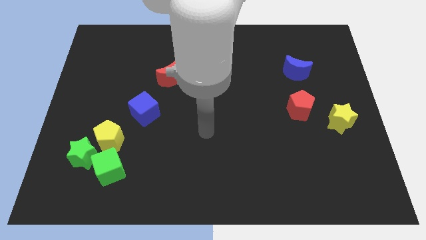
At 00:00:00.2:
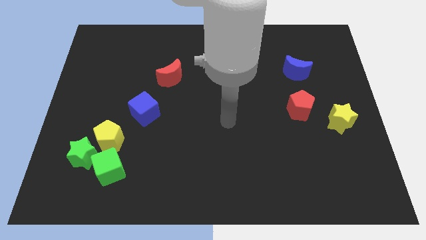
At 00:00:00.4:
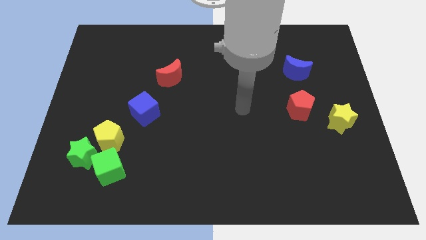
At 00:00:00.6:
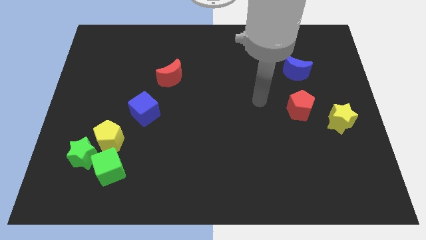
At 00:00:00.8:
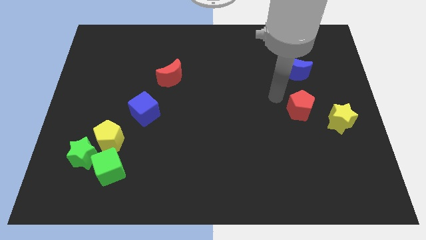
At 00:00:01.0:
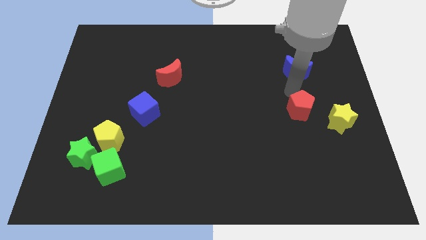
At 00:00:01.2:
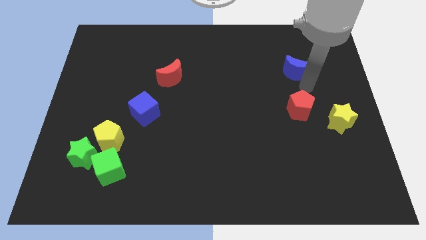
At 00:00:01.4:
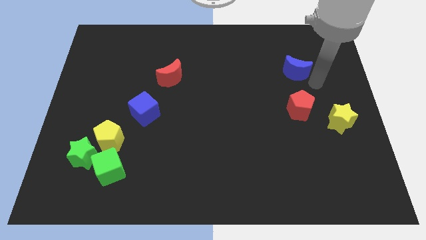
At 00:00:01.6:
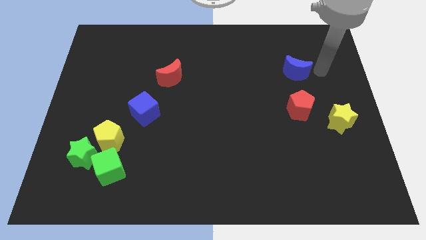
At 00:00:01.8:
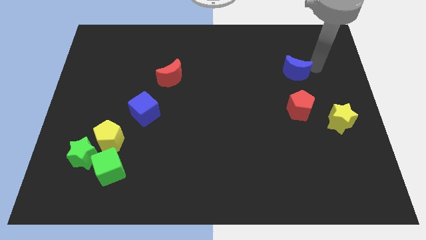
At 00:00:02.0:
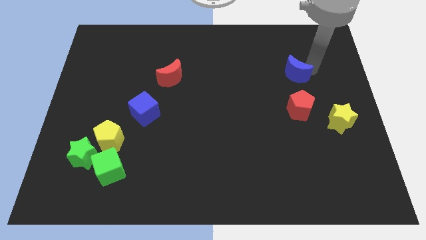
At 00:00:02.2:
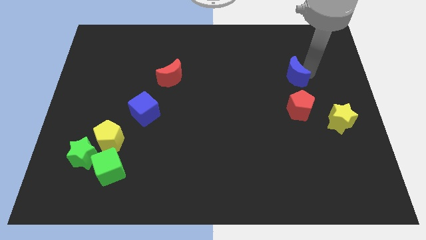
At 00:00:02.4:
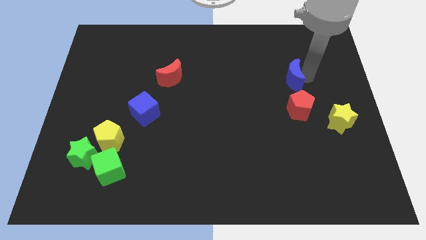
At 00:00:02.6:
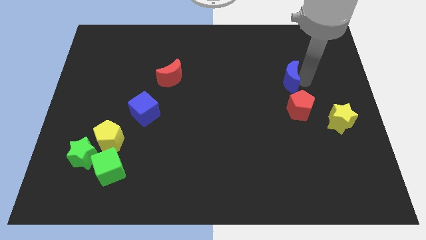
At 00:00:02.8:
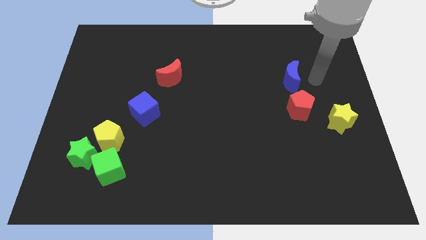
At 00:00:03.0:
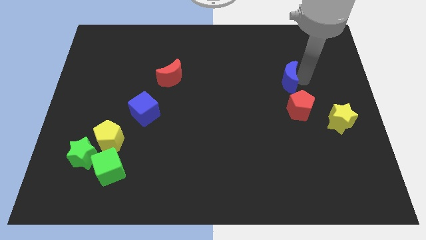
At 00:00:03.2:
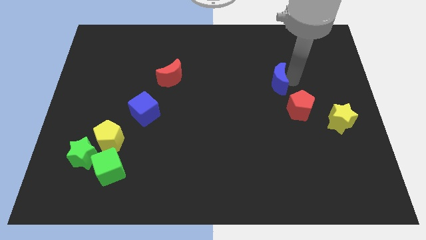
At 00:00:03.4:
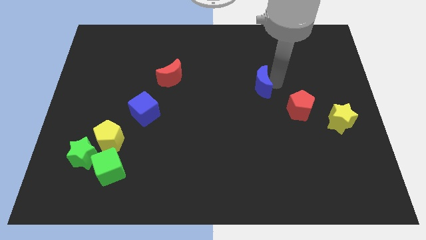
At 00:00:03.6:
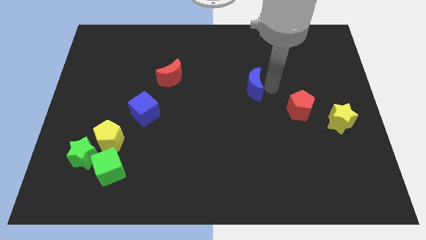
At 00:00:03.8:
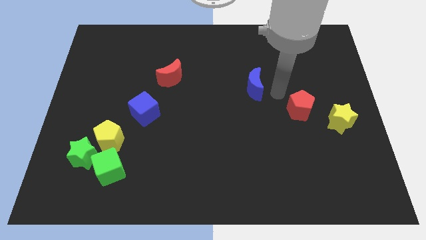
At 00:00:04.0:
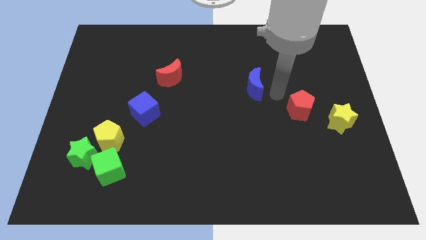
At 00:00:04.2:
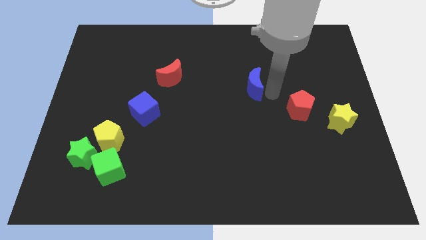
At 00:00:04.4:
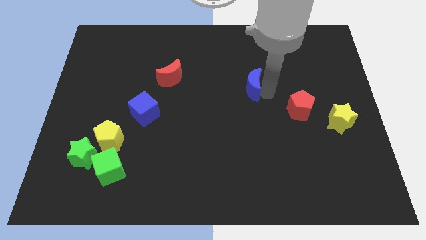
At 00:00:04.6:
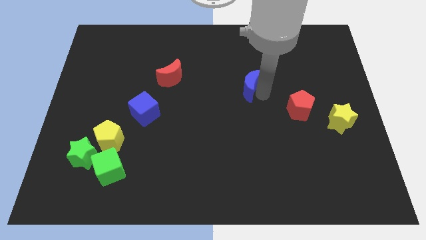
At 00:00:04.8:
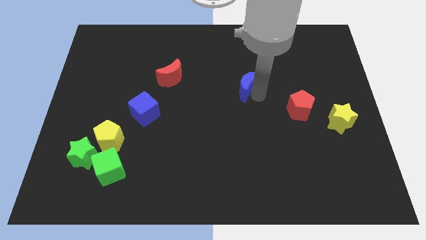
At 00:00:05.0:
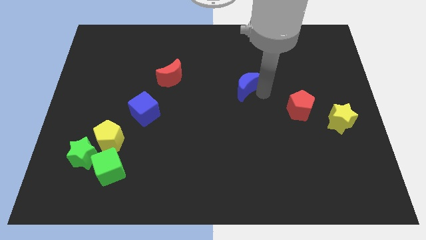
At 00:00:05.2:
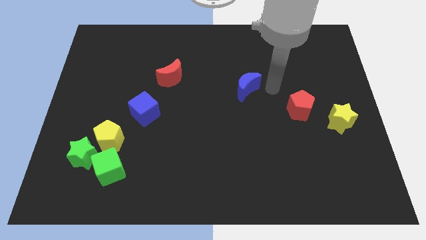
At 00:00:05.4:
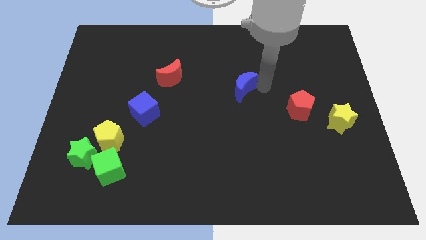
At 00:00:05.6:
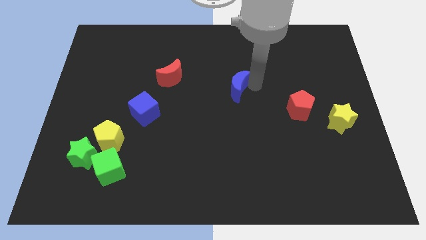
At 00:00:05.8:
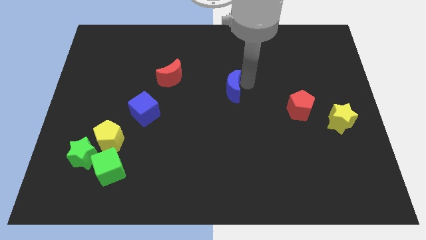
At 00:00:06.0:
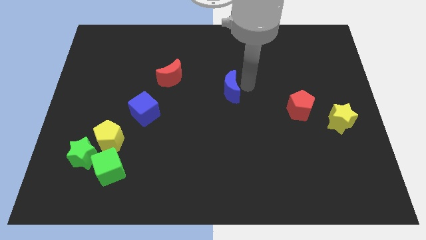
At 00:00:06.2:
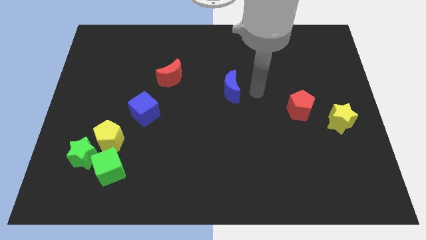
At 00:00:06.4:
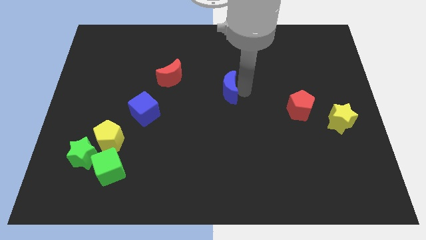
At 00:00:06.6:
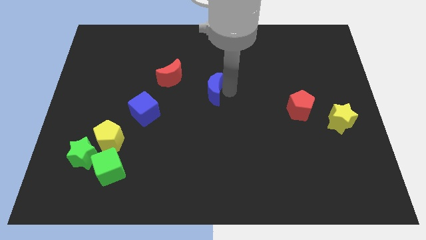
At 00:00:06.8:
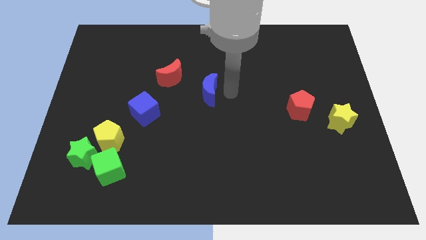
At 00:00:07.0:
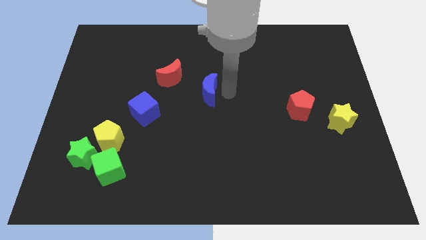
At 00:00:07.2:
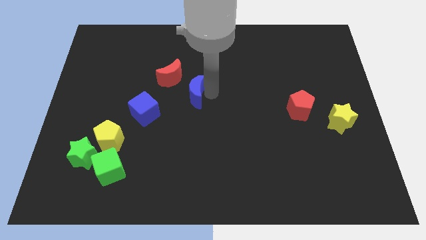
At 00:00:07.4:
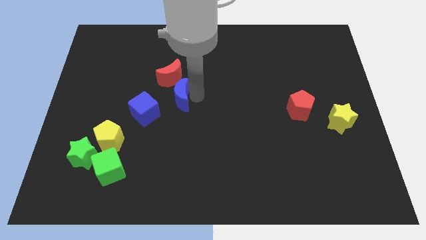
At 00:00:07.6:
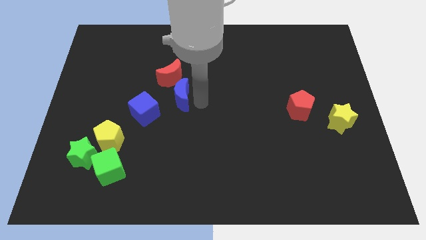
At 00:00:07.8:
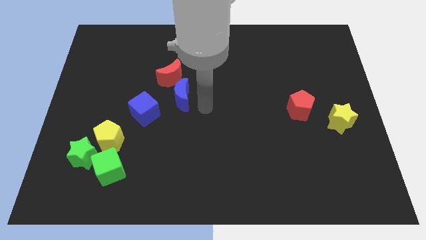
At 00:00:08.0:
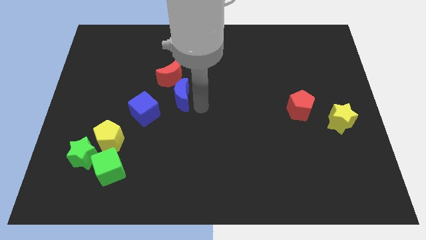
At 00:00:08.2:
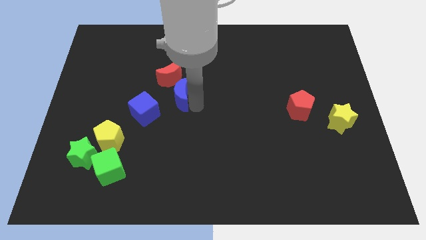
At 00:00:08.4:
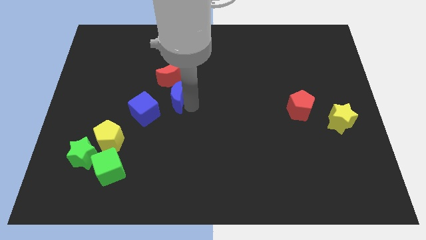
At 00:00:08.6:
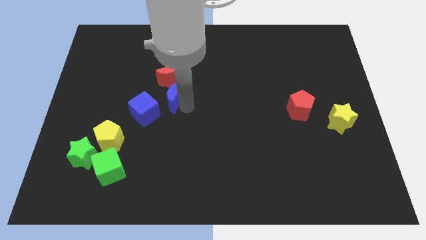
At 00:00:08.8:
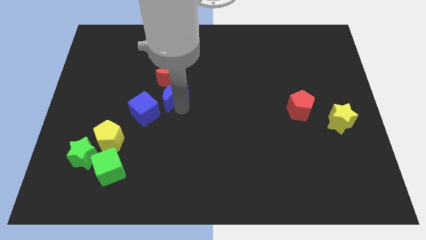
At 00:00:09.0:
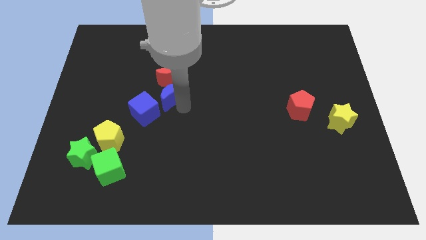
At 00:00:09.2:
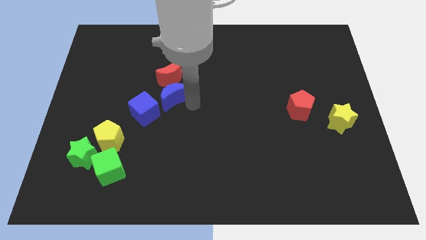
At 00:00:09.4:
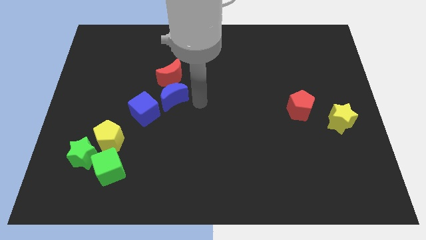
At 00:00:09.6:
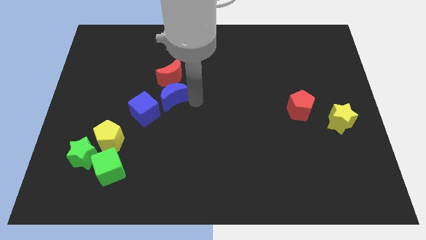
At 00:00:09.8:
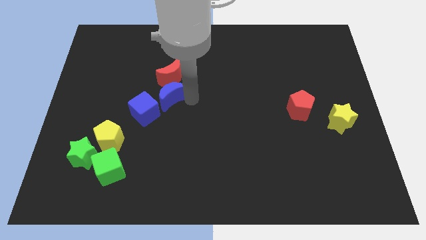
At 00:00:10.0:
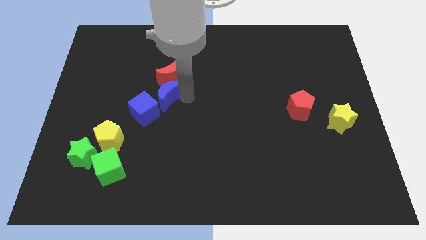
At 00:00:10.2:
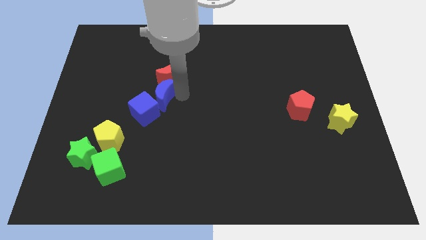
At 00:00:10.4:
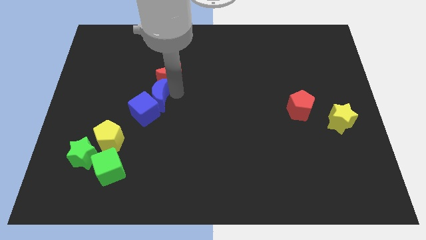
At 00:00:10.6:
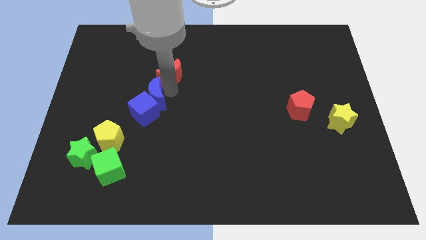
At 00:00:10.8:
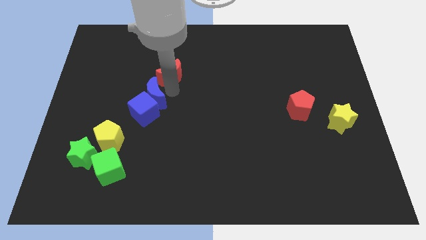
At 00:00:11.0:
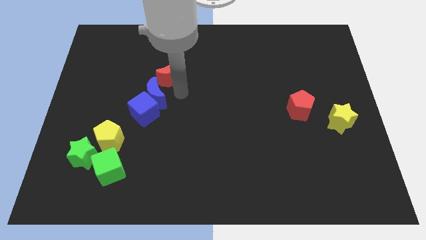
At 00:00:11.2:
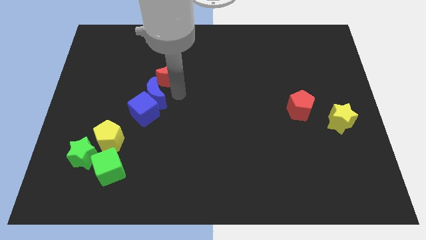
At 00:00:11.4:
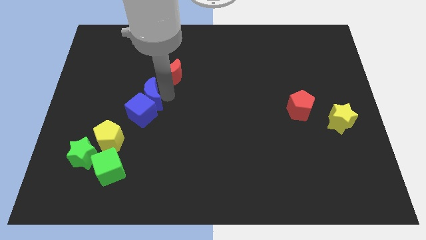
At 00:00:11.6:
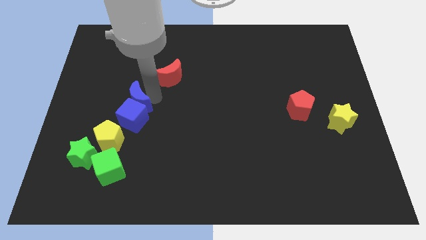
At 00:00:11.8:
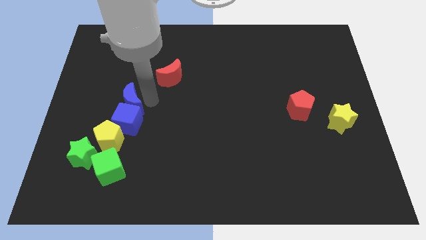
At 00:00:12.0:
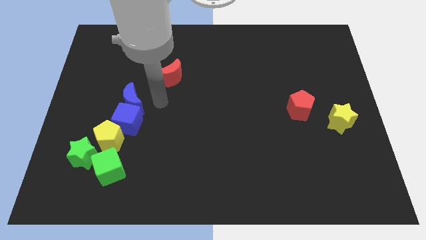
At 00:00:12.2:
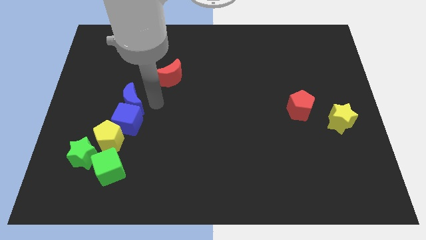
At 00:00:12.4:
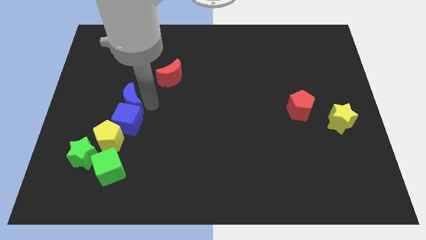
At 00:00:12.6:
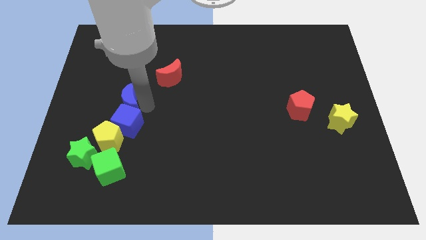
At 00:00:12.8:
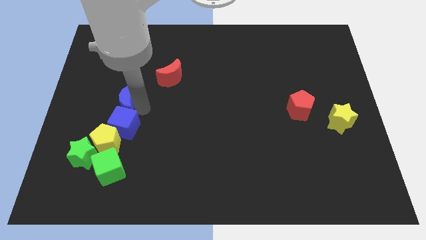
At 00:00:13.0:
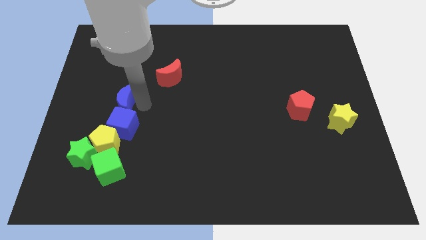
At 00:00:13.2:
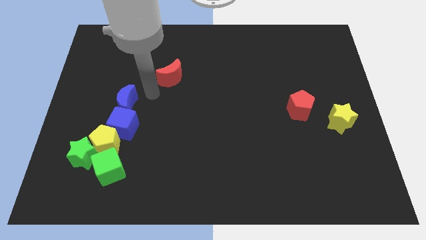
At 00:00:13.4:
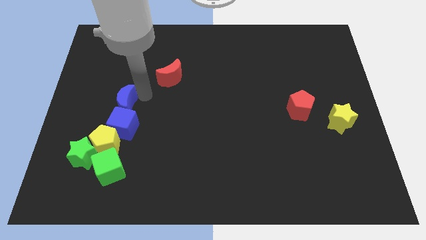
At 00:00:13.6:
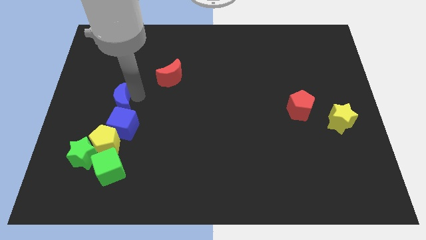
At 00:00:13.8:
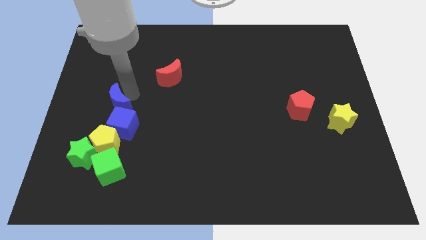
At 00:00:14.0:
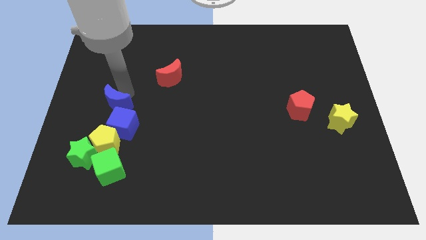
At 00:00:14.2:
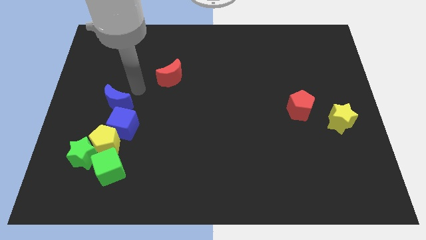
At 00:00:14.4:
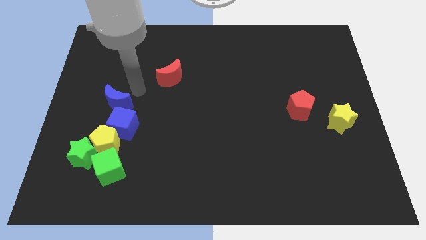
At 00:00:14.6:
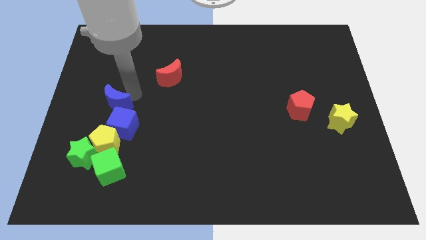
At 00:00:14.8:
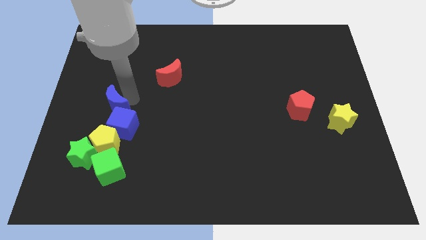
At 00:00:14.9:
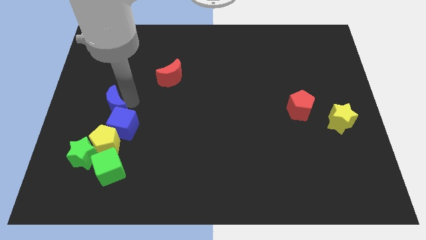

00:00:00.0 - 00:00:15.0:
push the blue moon to the top side of the green star

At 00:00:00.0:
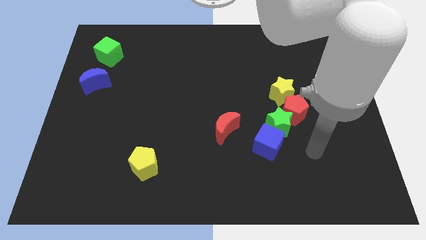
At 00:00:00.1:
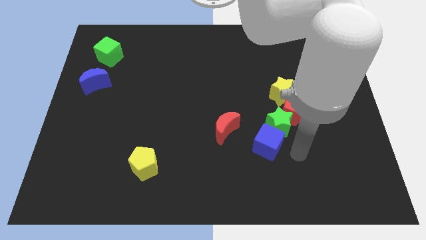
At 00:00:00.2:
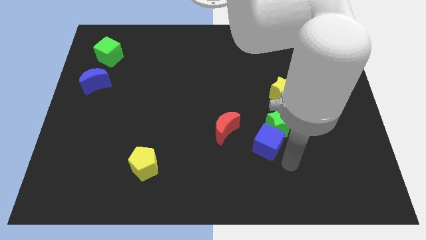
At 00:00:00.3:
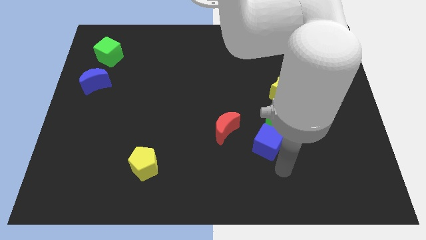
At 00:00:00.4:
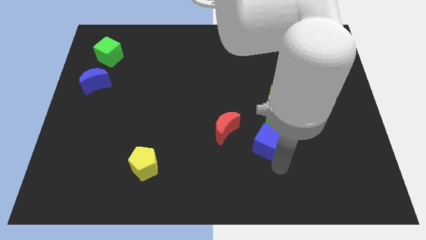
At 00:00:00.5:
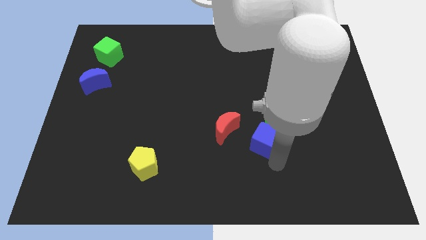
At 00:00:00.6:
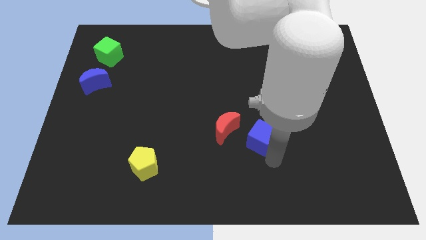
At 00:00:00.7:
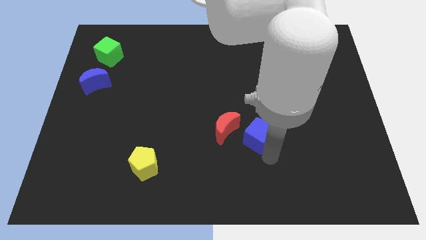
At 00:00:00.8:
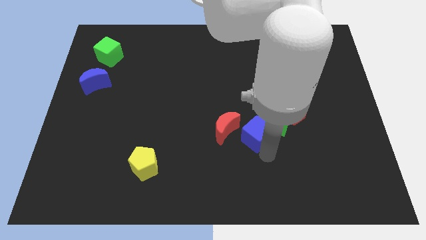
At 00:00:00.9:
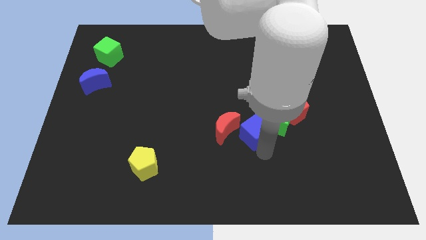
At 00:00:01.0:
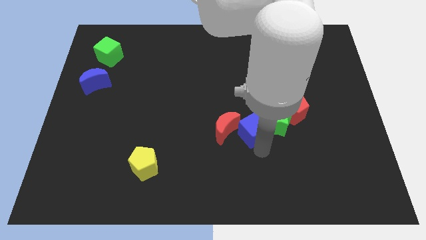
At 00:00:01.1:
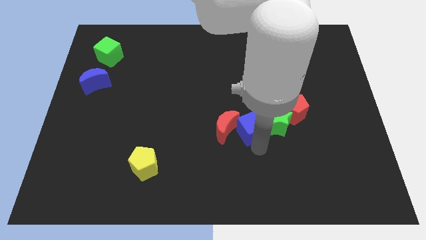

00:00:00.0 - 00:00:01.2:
push the blue cube just left of the red pentagon
